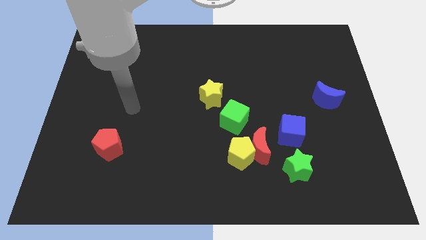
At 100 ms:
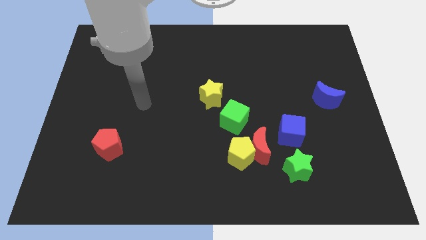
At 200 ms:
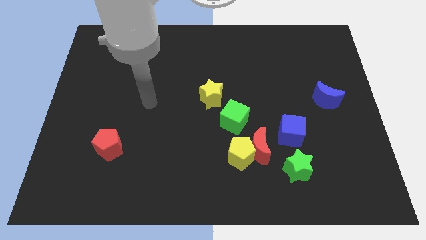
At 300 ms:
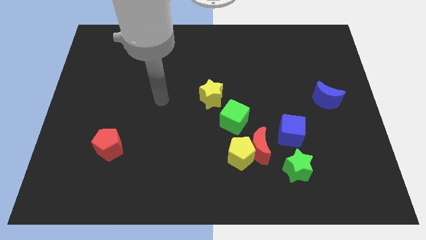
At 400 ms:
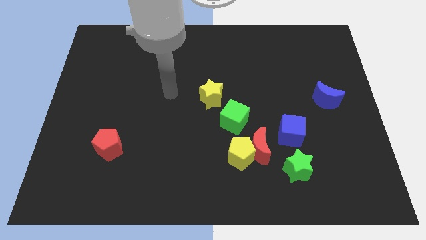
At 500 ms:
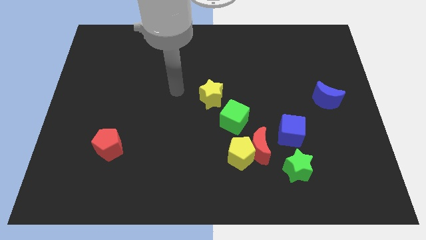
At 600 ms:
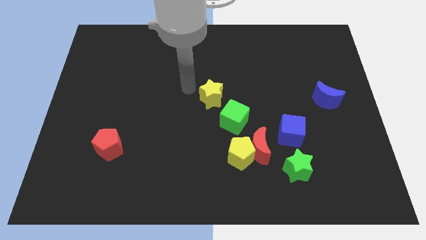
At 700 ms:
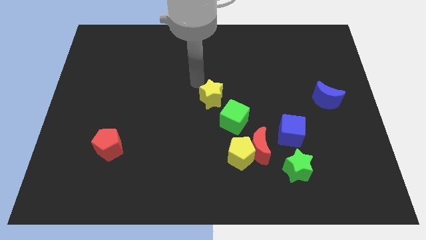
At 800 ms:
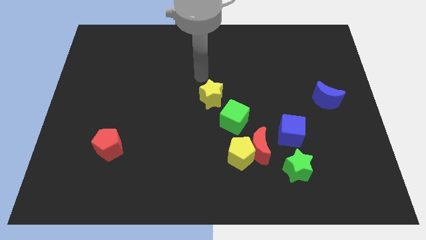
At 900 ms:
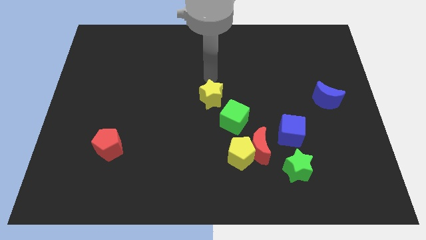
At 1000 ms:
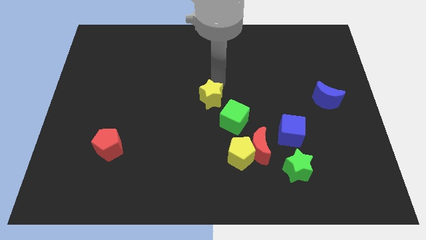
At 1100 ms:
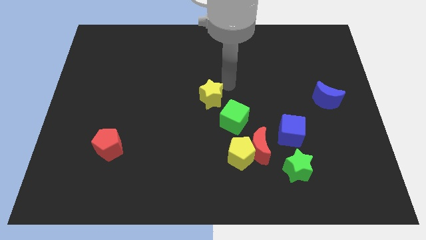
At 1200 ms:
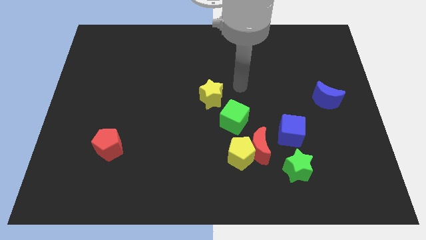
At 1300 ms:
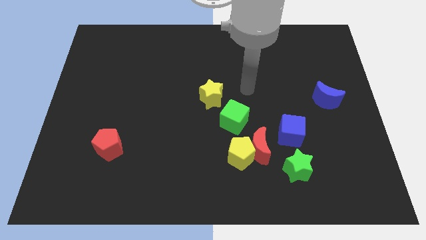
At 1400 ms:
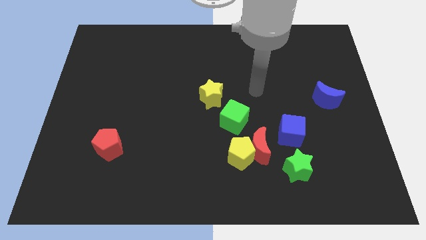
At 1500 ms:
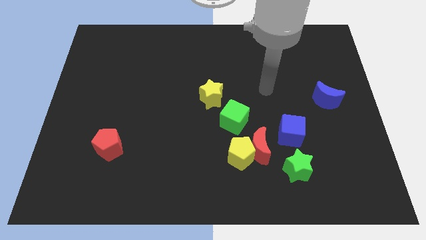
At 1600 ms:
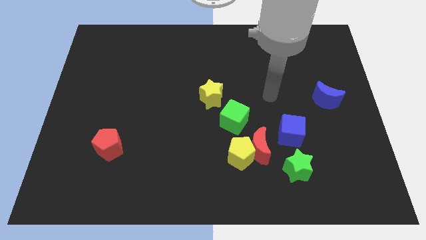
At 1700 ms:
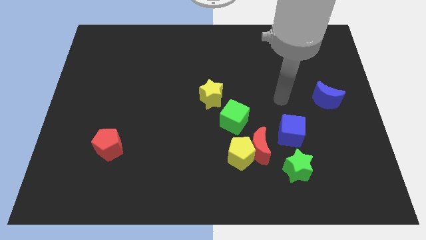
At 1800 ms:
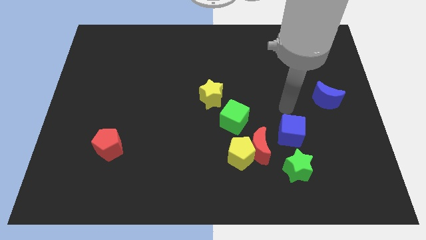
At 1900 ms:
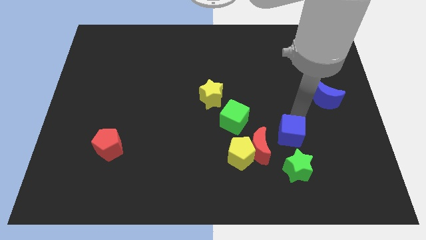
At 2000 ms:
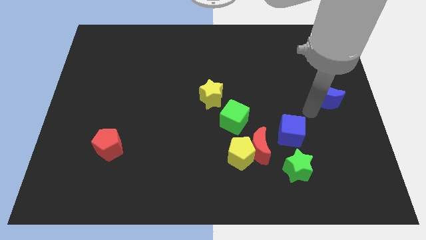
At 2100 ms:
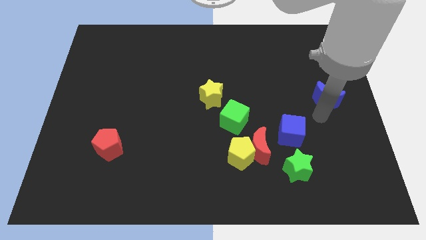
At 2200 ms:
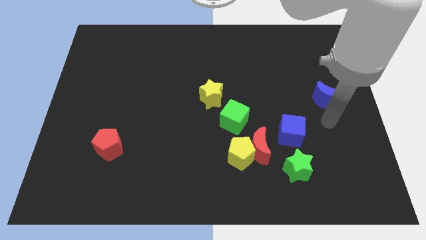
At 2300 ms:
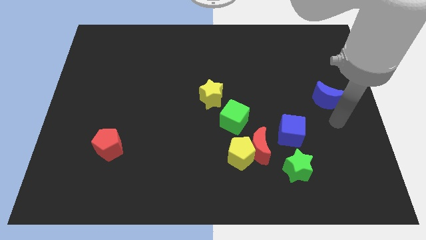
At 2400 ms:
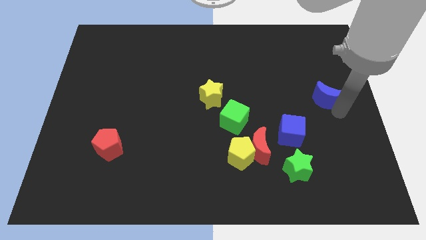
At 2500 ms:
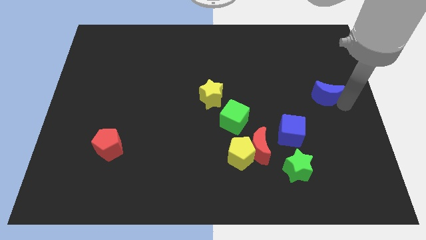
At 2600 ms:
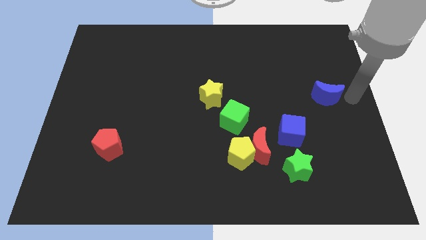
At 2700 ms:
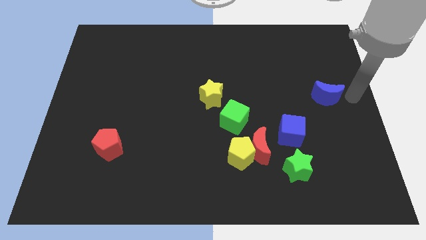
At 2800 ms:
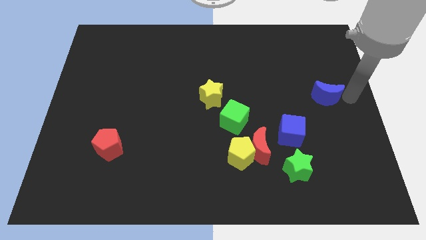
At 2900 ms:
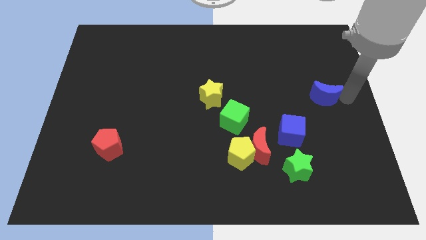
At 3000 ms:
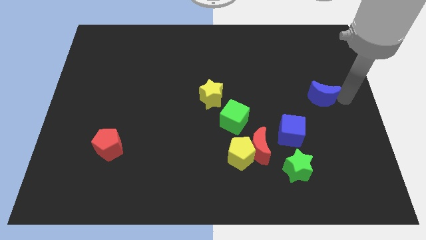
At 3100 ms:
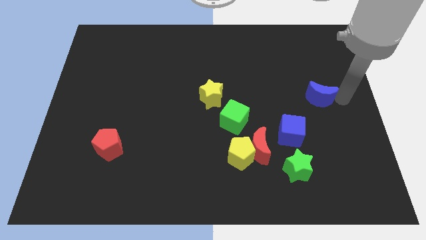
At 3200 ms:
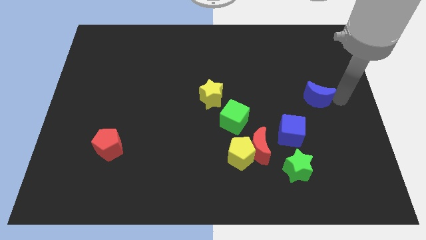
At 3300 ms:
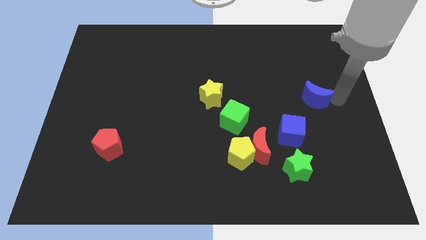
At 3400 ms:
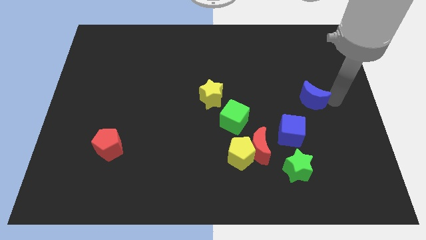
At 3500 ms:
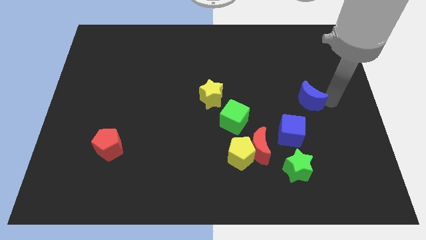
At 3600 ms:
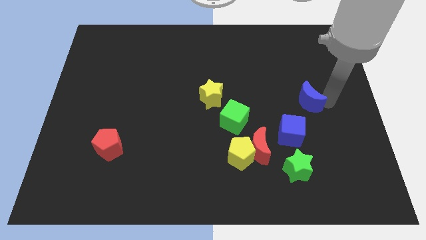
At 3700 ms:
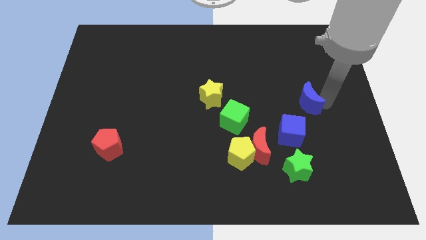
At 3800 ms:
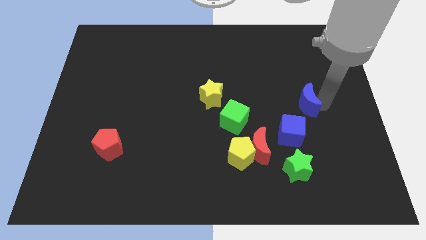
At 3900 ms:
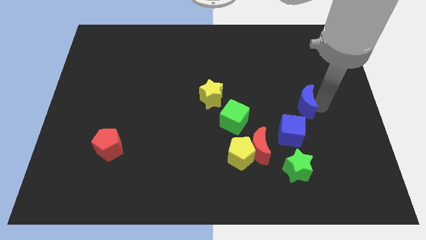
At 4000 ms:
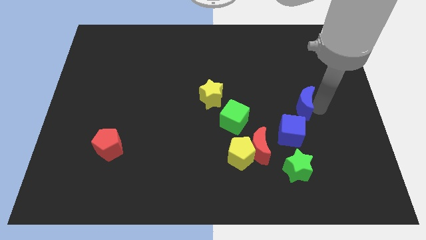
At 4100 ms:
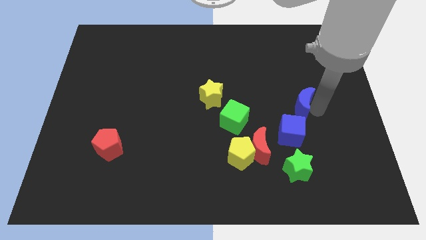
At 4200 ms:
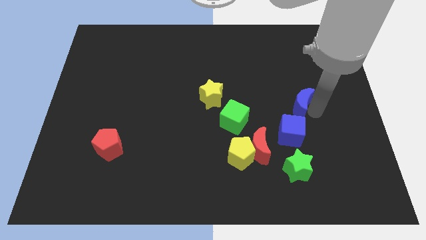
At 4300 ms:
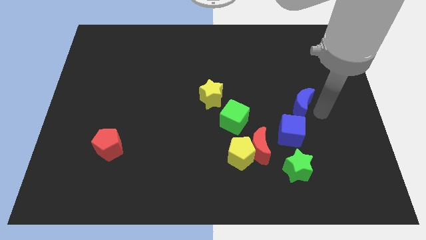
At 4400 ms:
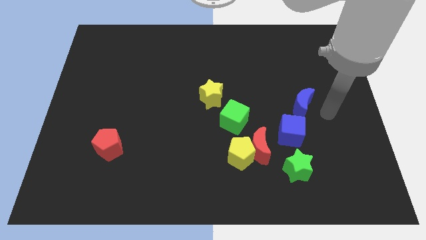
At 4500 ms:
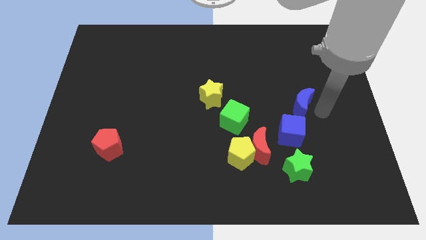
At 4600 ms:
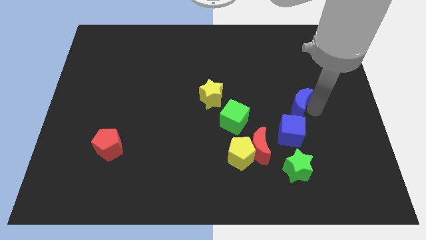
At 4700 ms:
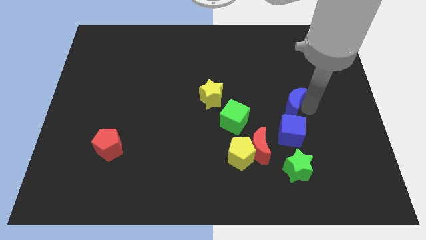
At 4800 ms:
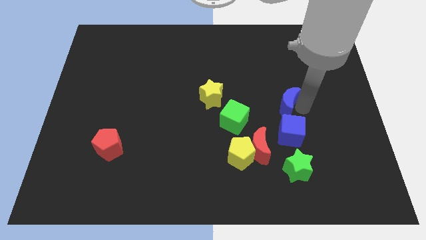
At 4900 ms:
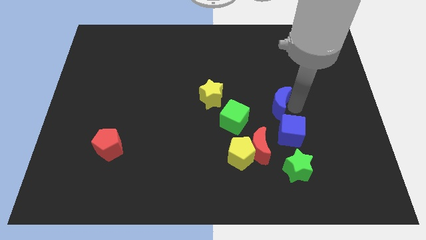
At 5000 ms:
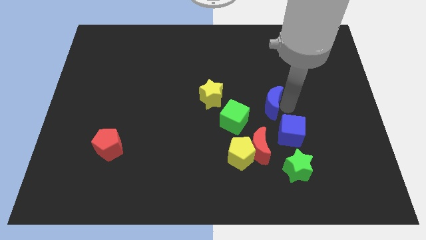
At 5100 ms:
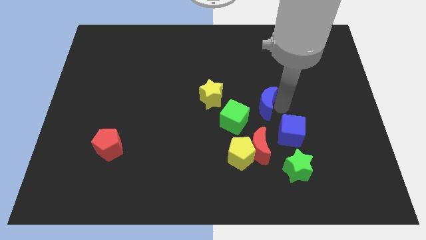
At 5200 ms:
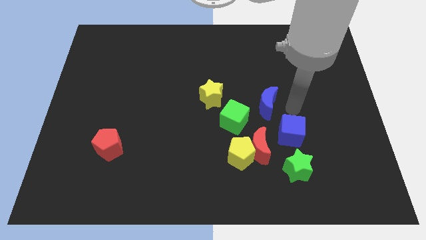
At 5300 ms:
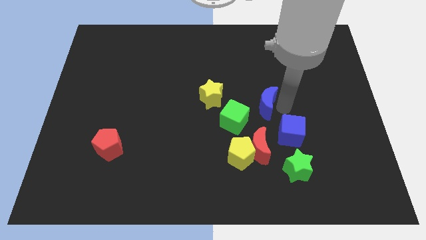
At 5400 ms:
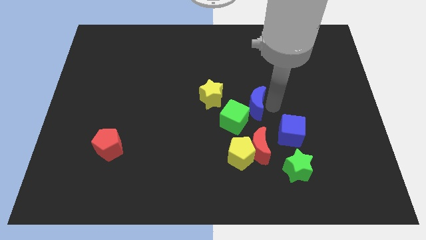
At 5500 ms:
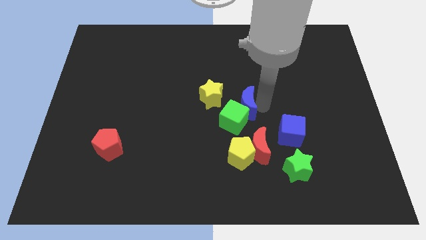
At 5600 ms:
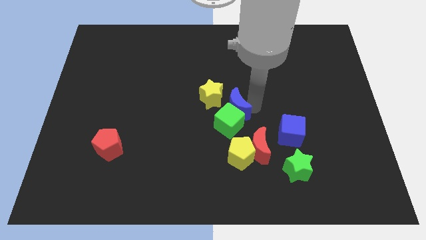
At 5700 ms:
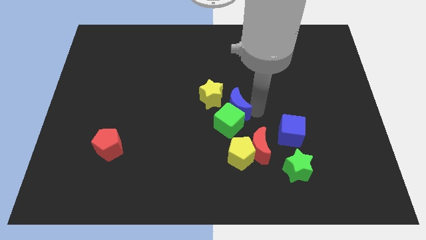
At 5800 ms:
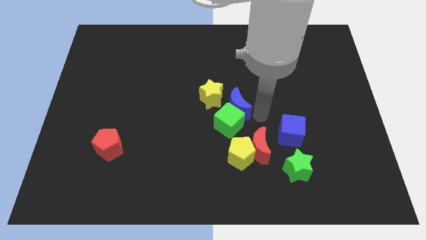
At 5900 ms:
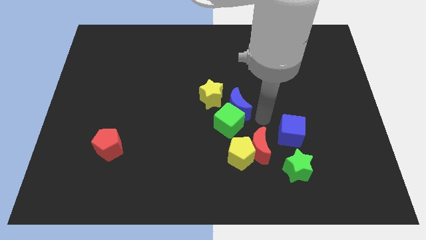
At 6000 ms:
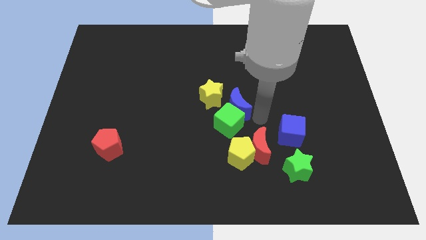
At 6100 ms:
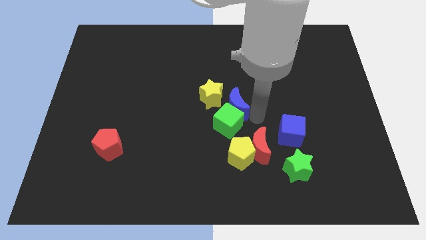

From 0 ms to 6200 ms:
slide the blue moon next to the yellow star

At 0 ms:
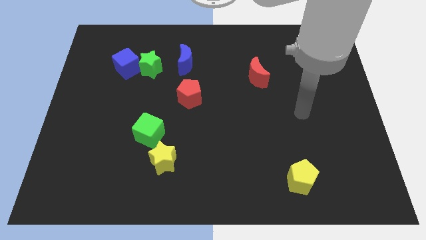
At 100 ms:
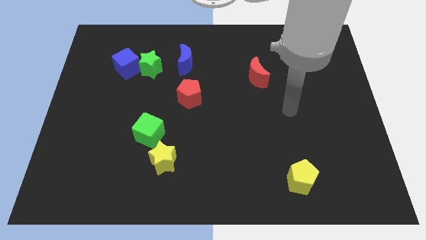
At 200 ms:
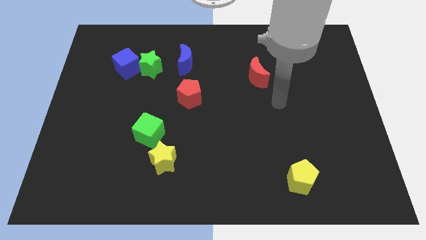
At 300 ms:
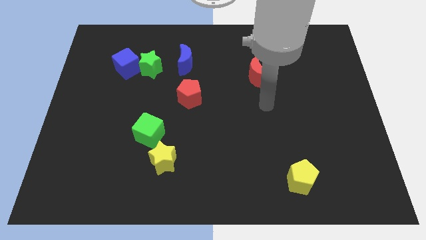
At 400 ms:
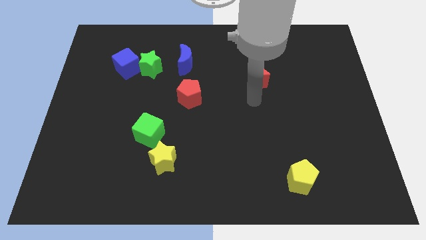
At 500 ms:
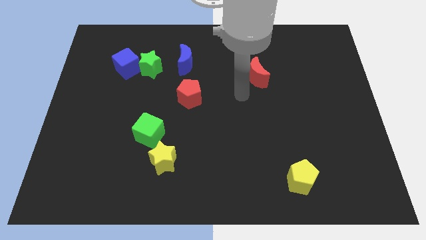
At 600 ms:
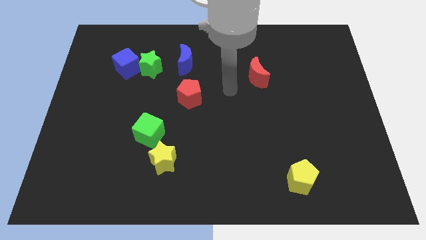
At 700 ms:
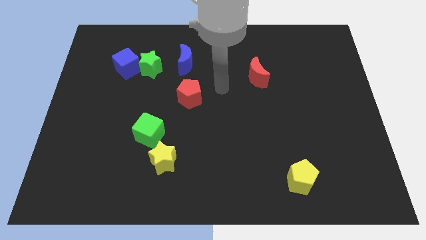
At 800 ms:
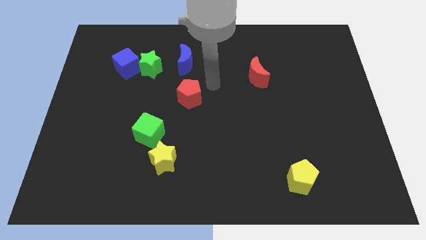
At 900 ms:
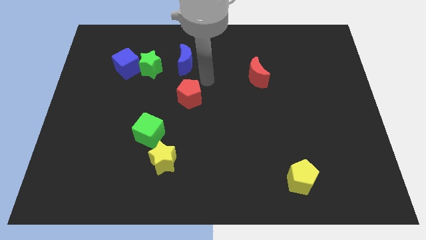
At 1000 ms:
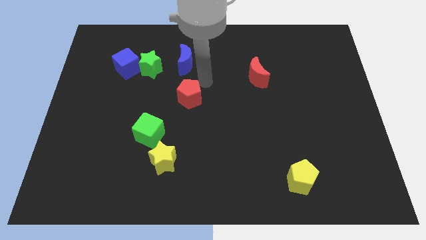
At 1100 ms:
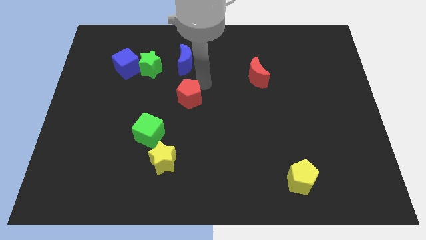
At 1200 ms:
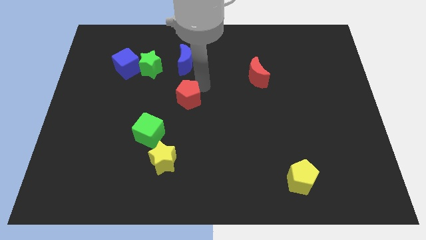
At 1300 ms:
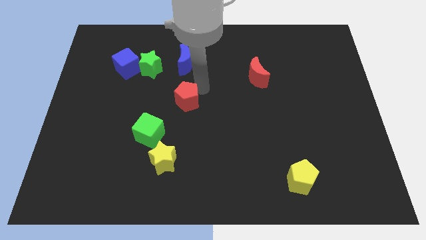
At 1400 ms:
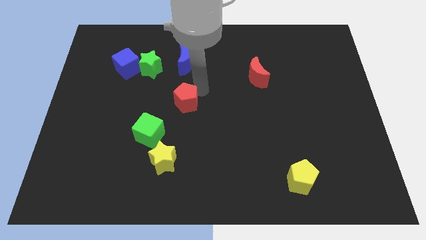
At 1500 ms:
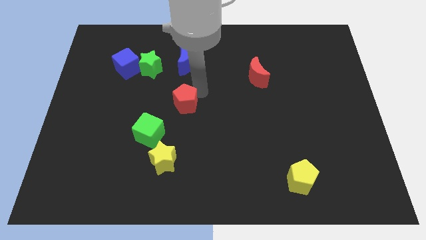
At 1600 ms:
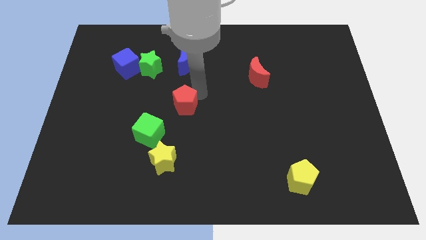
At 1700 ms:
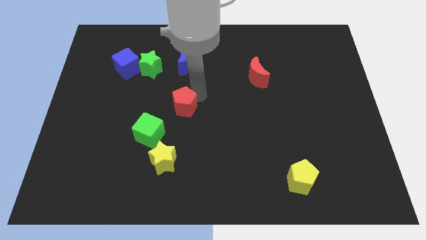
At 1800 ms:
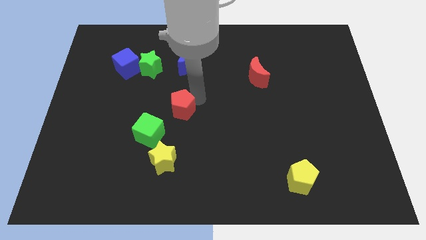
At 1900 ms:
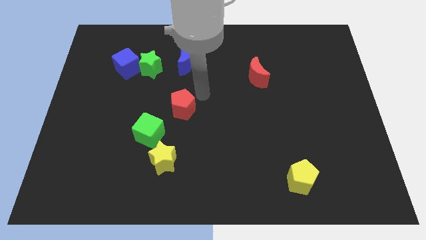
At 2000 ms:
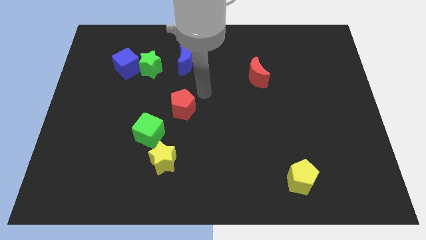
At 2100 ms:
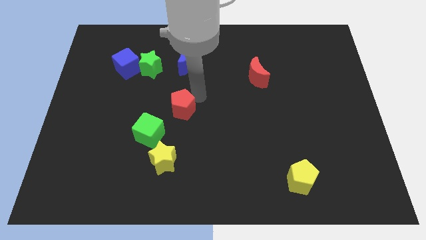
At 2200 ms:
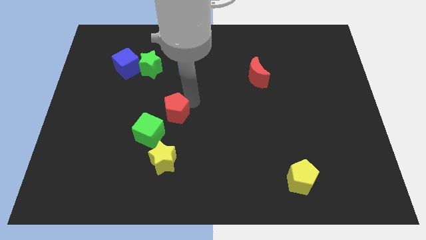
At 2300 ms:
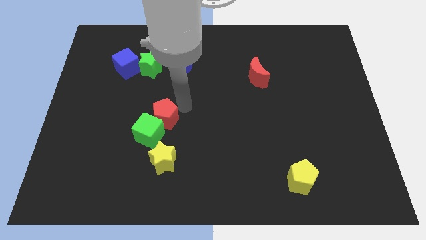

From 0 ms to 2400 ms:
slide the red pentagon close to the green cube
